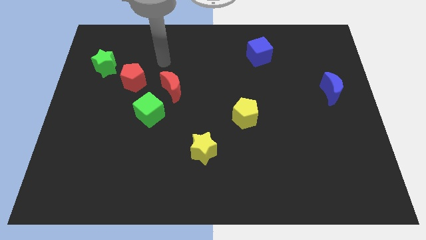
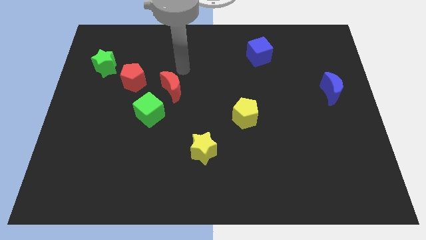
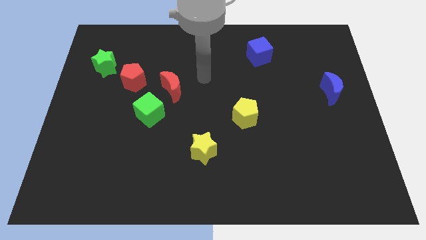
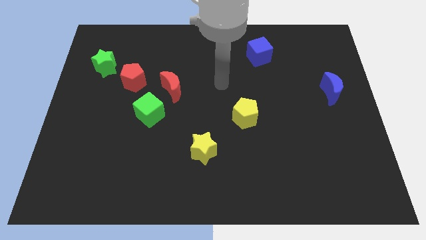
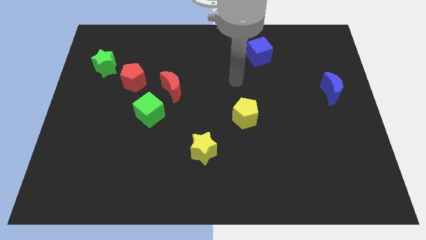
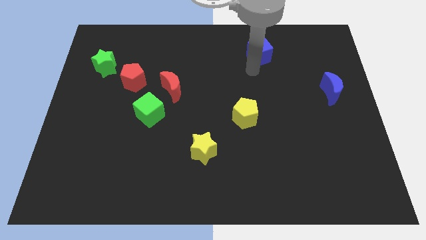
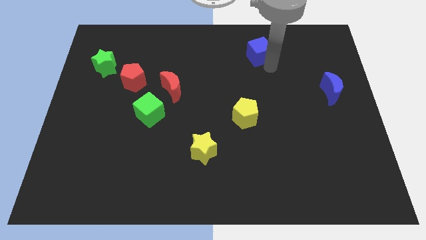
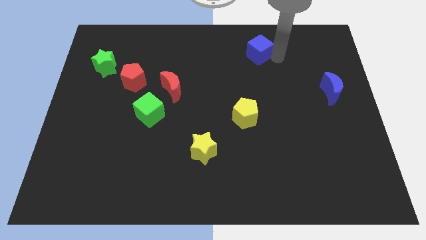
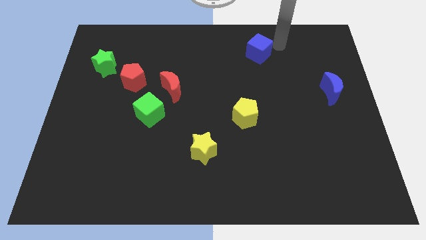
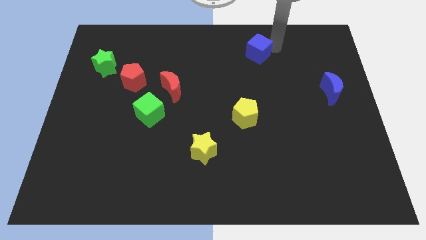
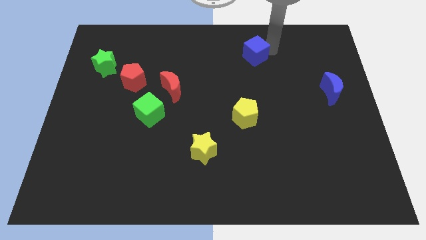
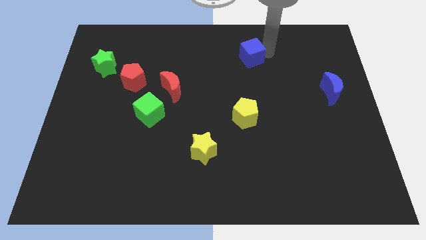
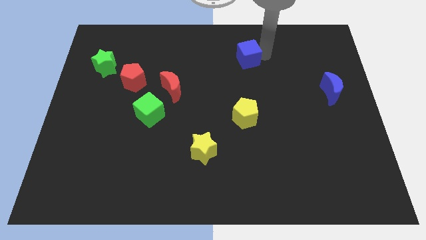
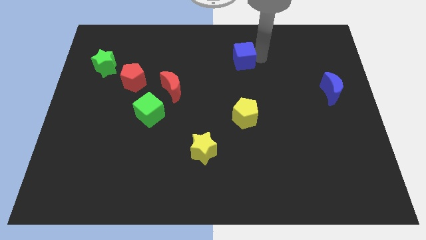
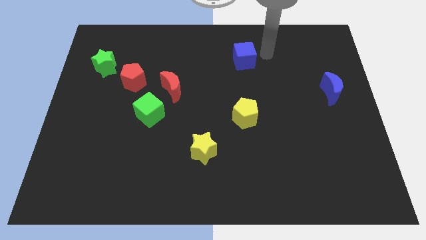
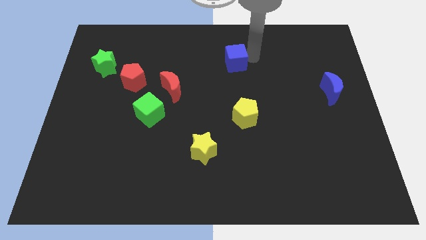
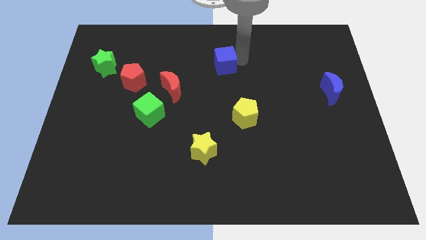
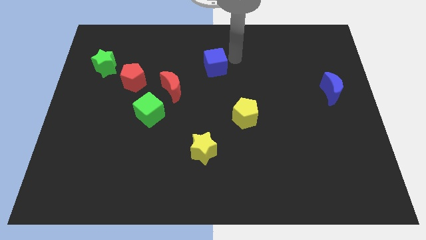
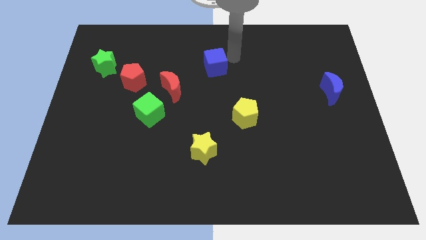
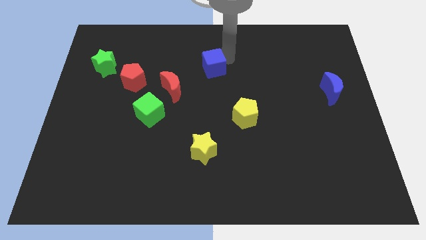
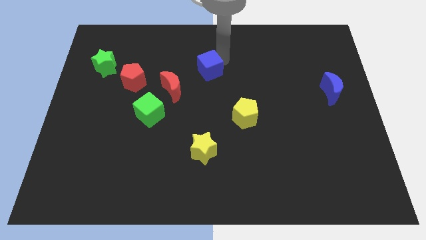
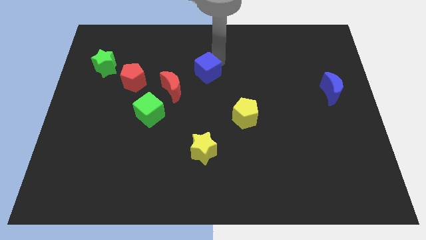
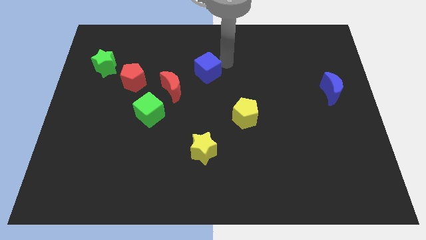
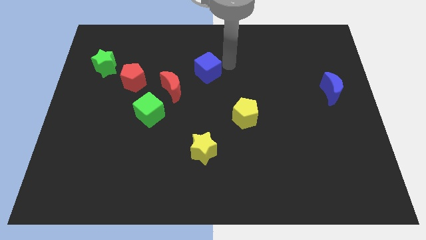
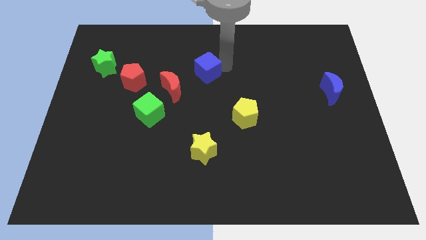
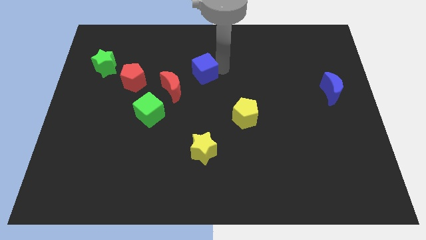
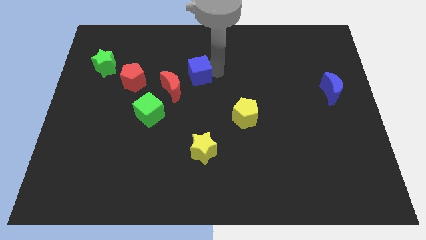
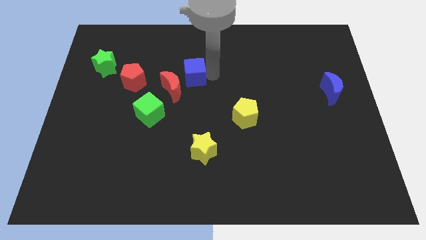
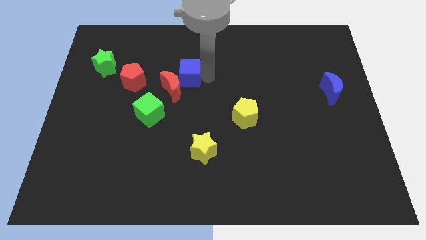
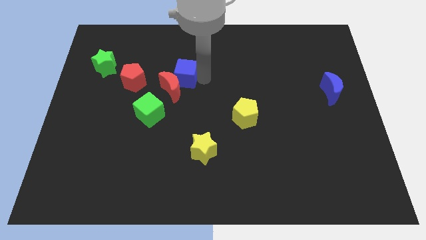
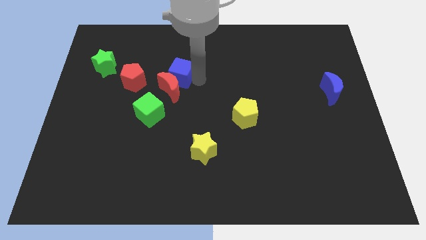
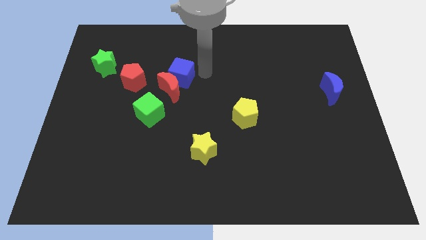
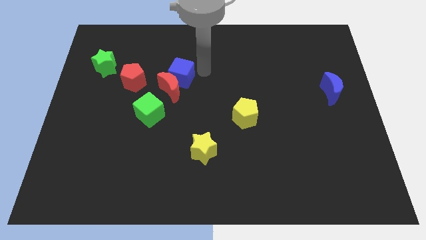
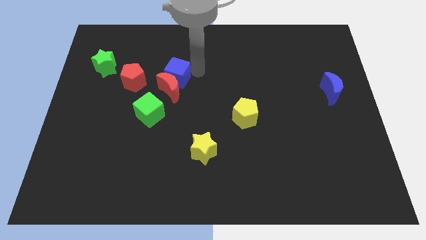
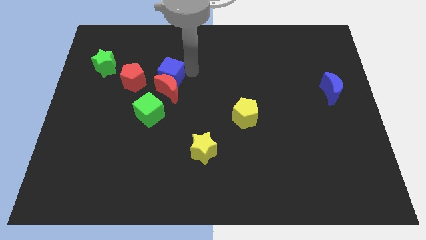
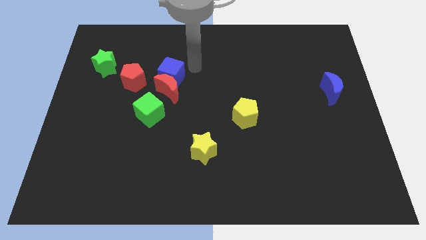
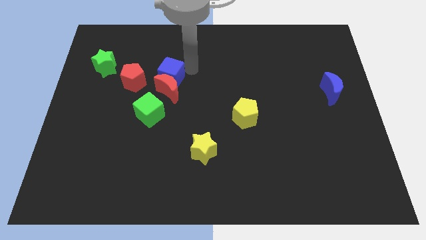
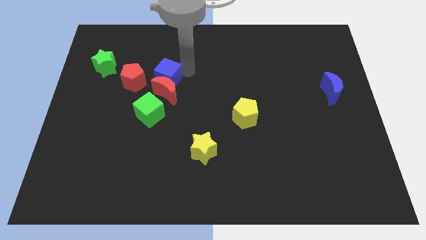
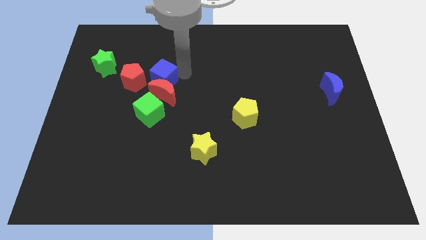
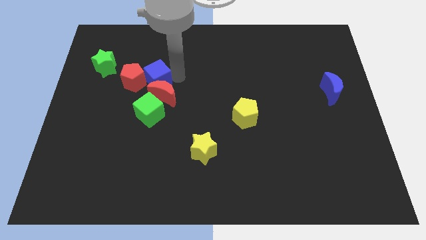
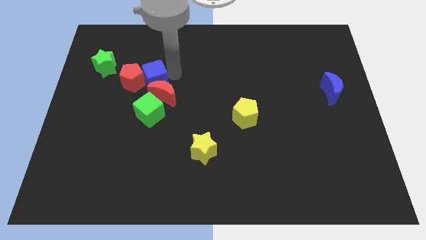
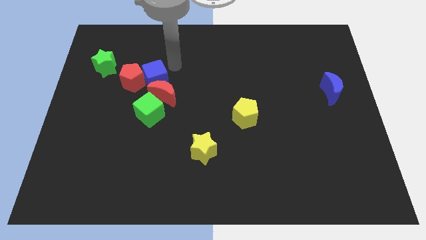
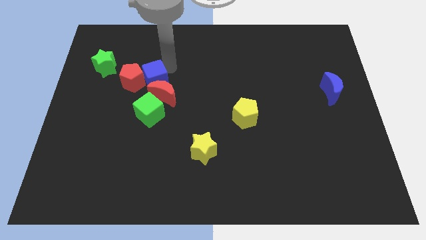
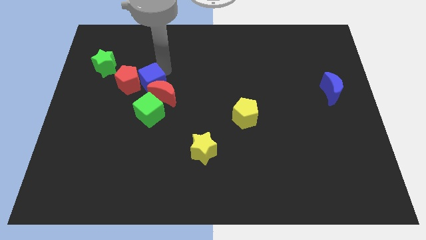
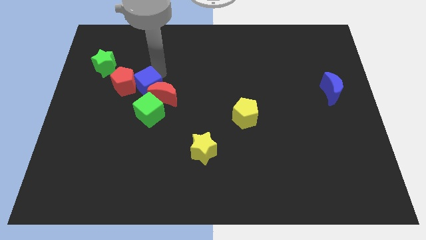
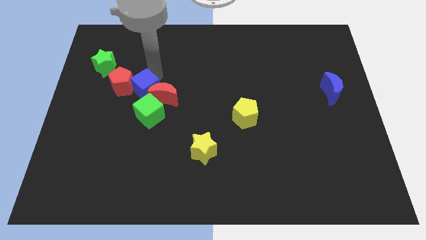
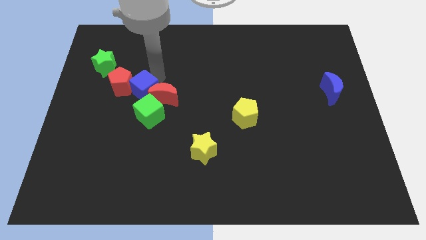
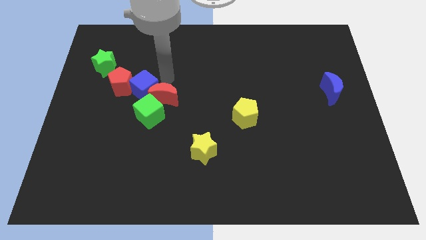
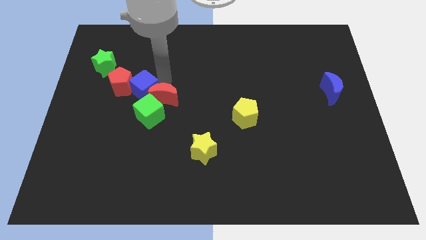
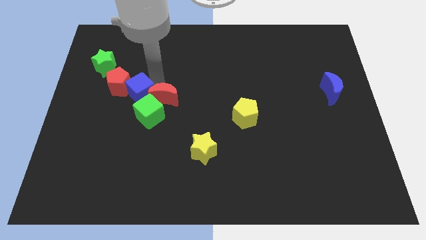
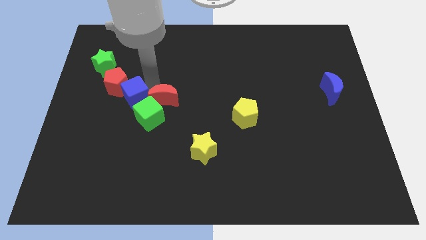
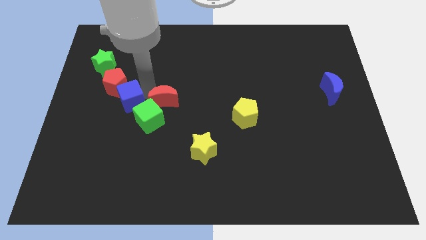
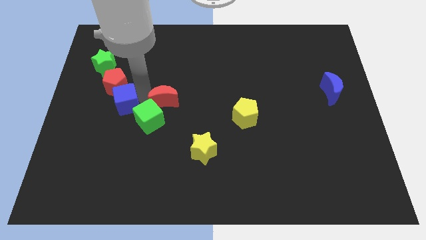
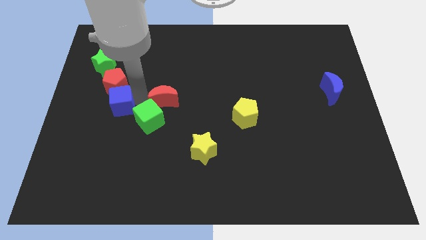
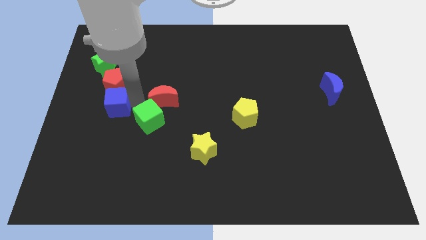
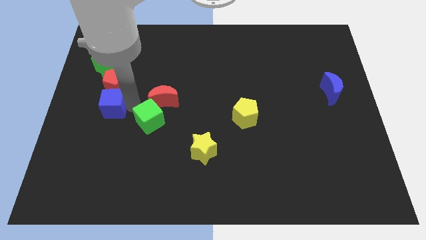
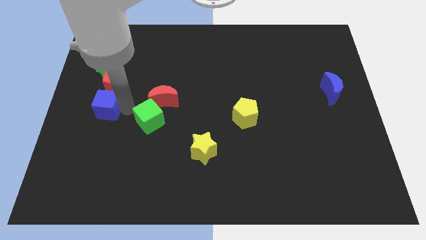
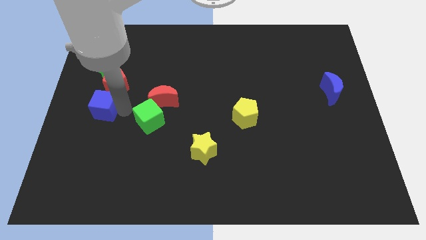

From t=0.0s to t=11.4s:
move the blue cube to the center left
